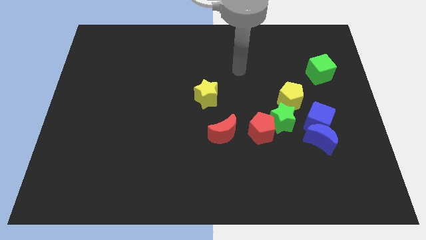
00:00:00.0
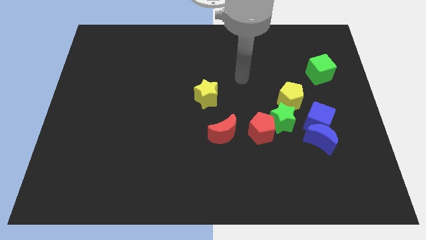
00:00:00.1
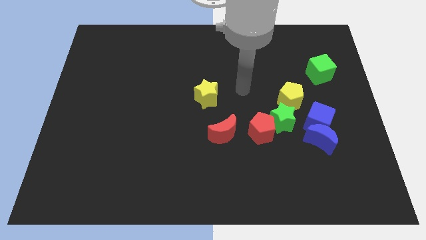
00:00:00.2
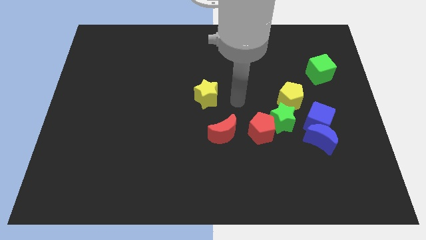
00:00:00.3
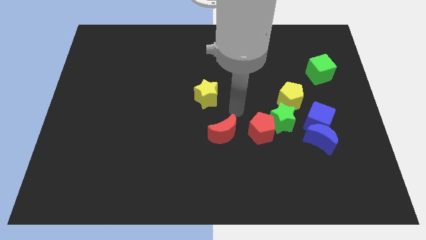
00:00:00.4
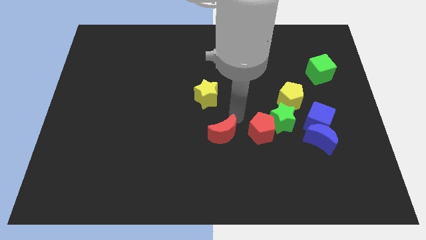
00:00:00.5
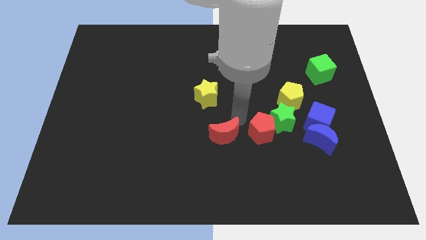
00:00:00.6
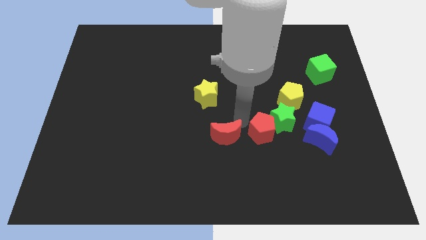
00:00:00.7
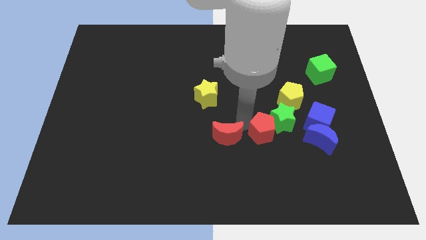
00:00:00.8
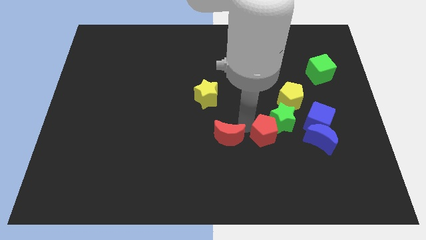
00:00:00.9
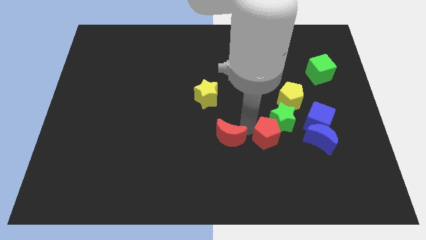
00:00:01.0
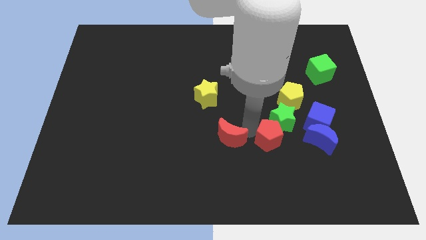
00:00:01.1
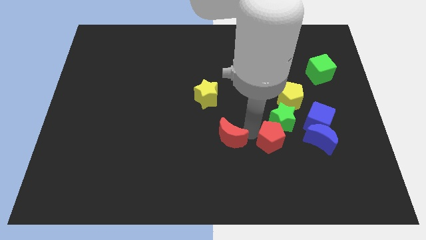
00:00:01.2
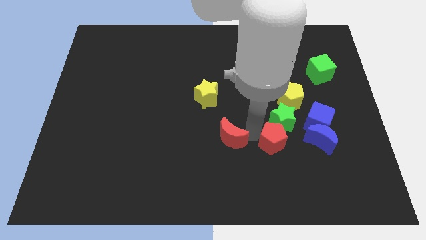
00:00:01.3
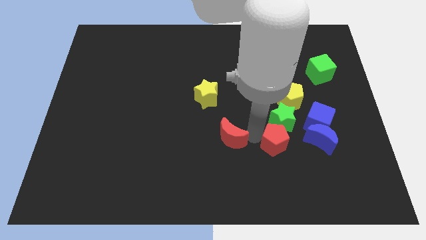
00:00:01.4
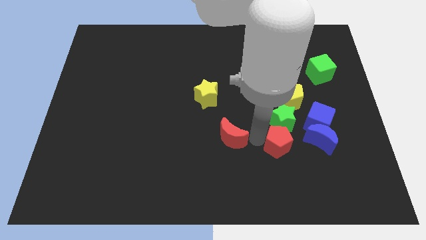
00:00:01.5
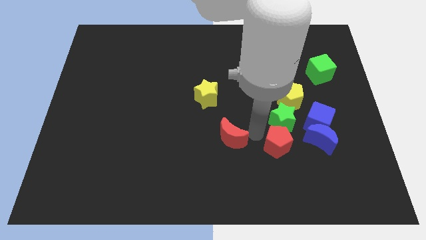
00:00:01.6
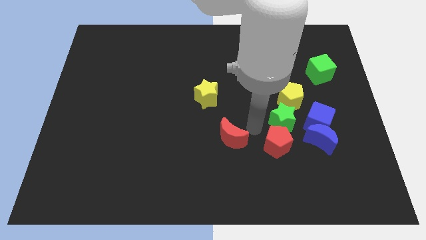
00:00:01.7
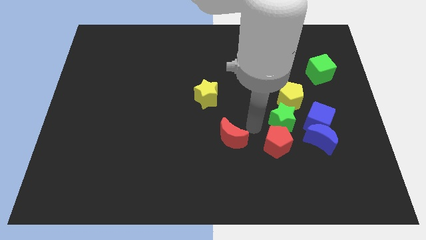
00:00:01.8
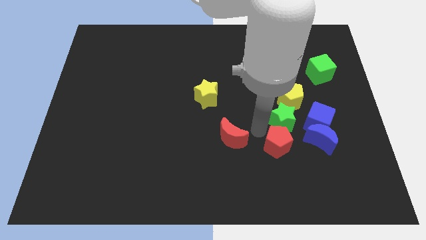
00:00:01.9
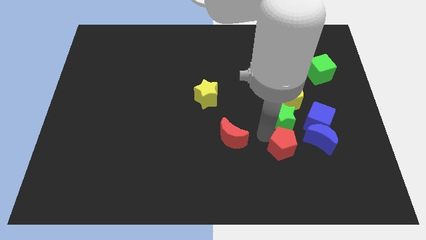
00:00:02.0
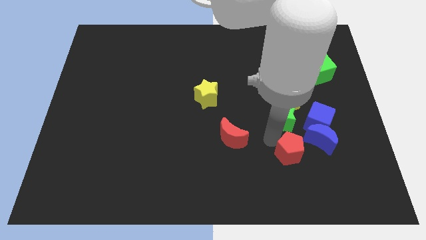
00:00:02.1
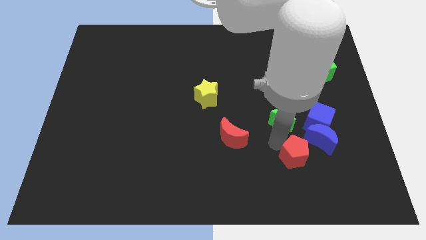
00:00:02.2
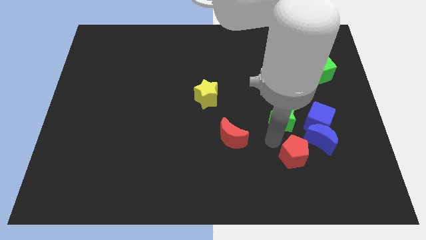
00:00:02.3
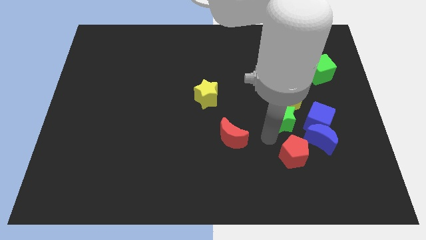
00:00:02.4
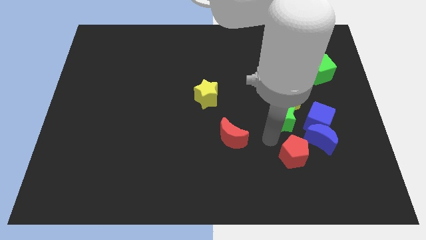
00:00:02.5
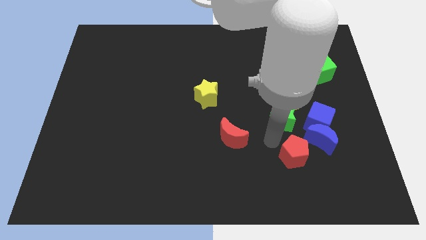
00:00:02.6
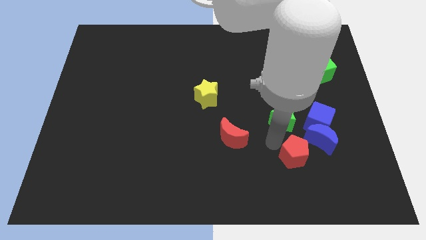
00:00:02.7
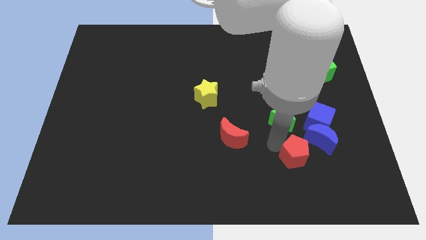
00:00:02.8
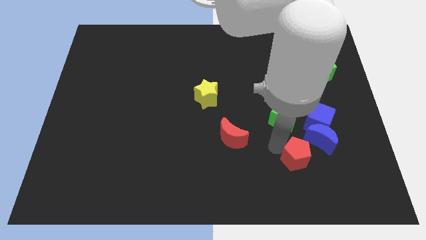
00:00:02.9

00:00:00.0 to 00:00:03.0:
move the red pentagon away from the green star and red moon

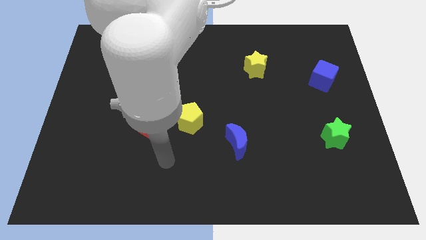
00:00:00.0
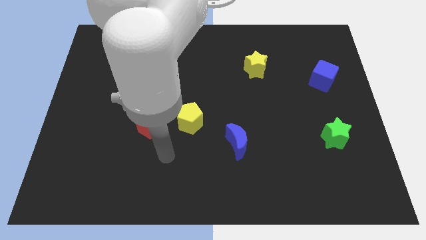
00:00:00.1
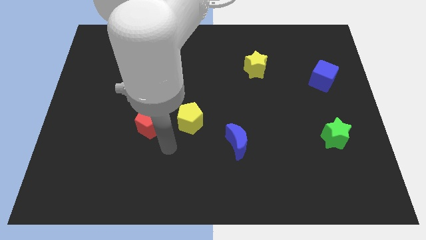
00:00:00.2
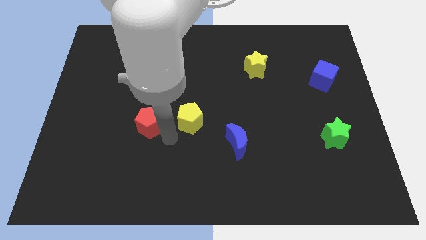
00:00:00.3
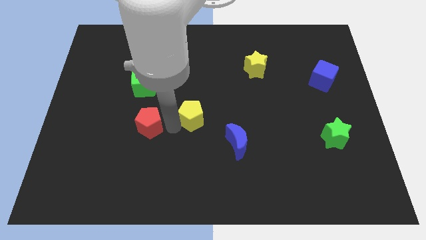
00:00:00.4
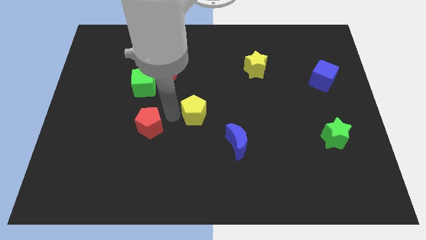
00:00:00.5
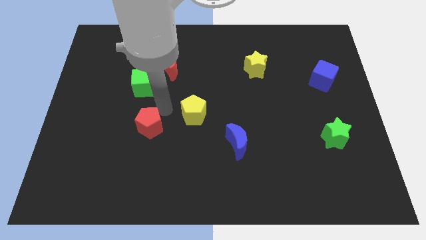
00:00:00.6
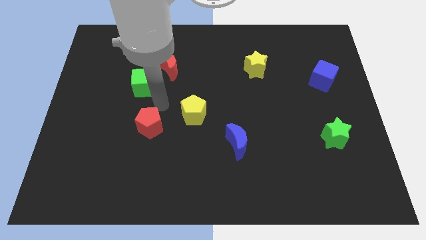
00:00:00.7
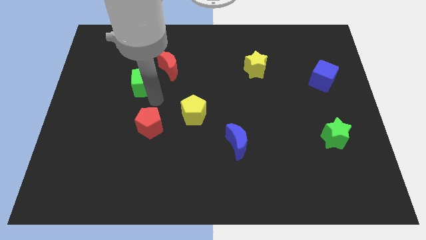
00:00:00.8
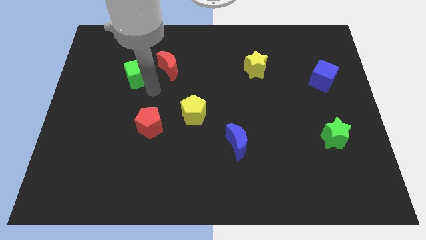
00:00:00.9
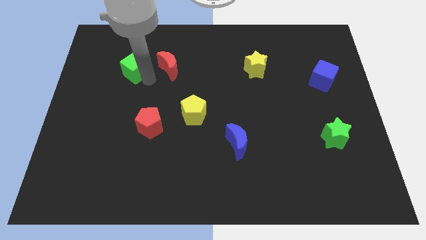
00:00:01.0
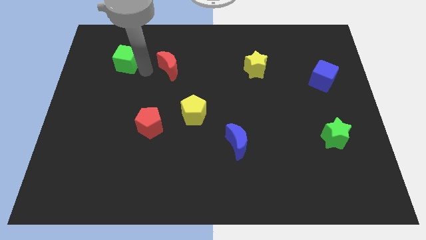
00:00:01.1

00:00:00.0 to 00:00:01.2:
separate the red moon from the green cube

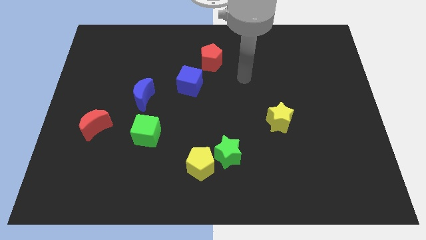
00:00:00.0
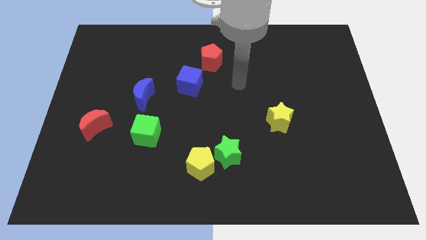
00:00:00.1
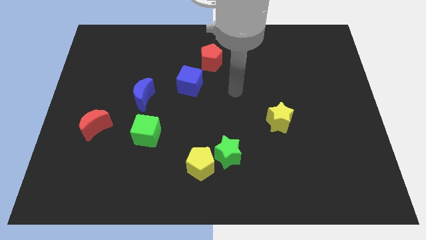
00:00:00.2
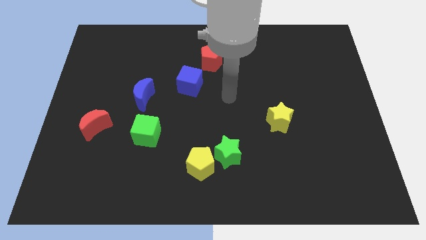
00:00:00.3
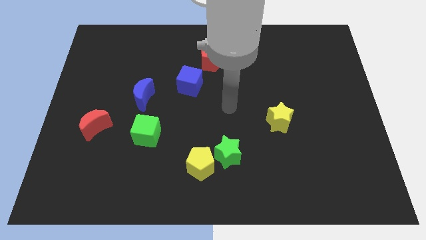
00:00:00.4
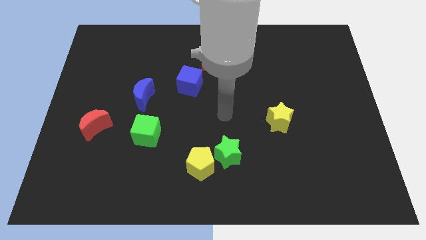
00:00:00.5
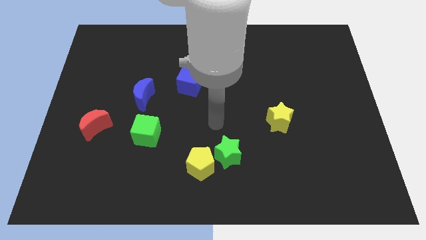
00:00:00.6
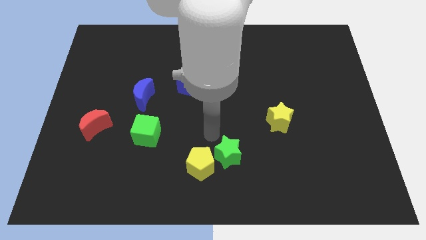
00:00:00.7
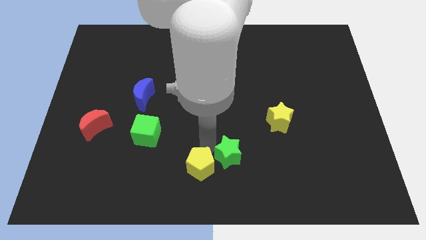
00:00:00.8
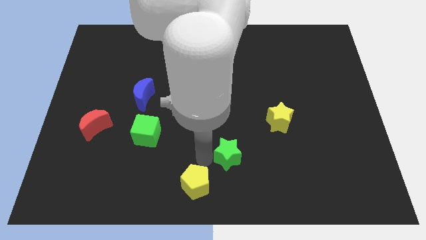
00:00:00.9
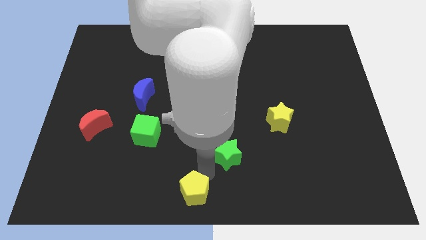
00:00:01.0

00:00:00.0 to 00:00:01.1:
pull the green star apart from the yellow pentagon

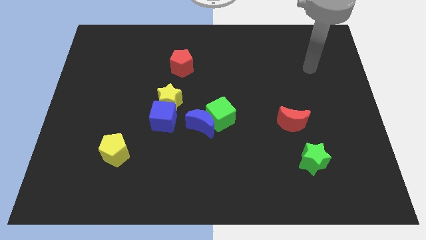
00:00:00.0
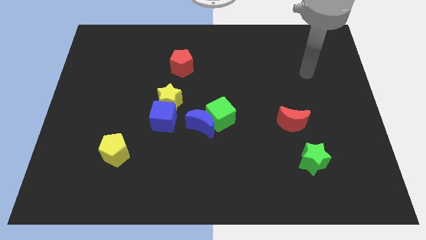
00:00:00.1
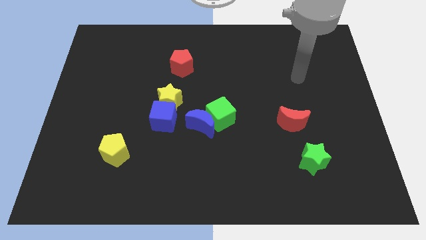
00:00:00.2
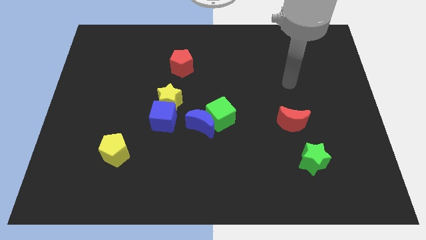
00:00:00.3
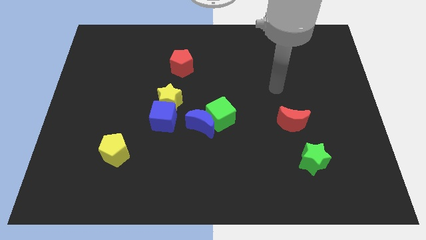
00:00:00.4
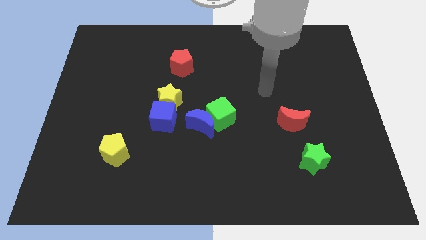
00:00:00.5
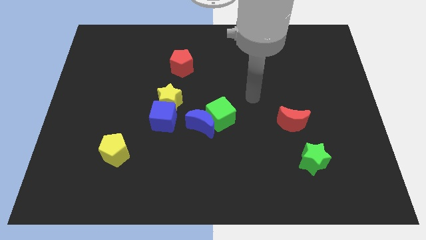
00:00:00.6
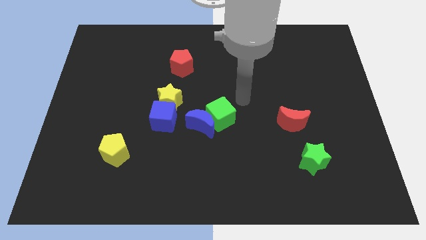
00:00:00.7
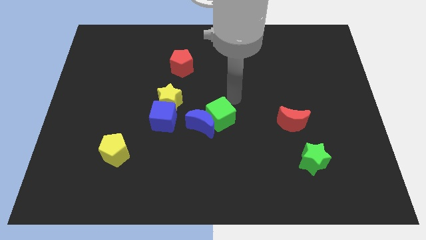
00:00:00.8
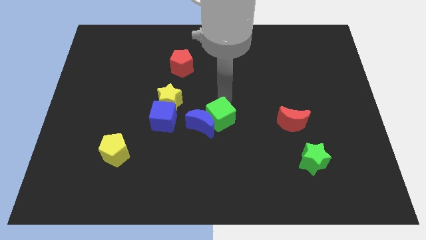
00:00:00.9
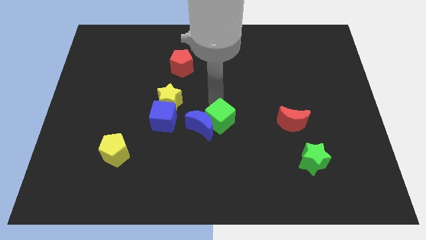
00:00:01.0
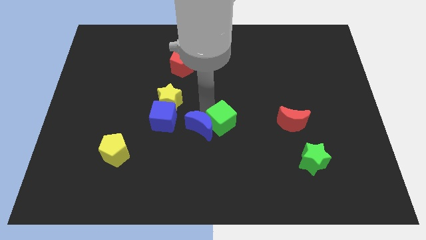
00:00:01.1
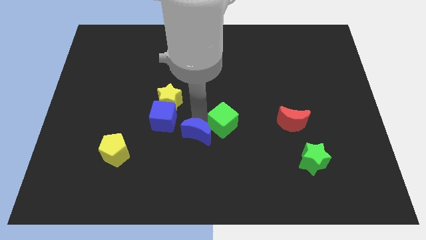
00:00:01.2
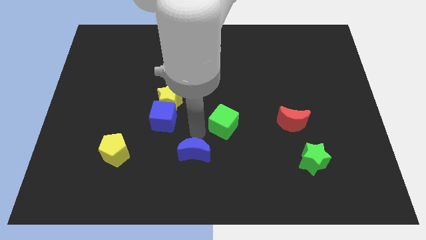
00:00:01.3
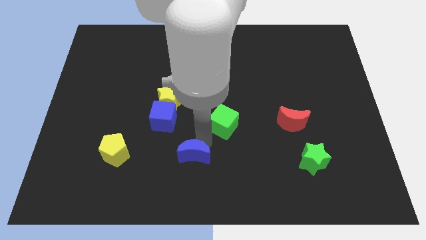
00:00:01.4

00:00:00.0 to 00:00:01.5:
pull the green cube apart from the blue moon

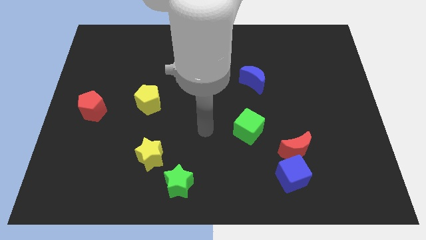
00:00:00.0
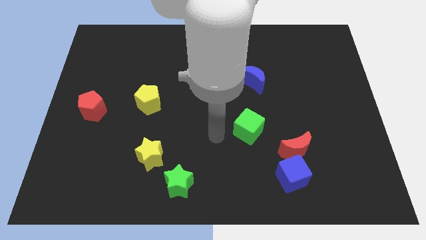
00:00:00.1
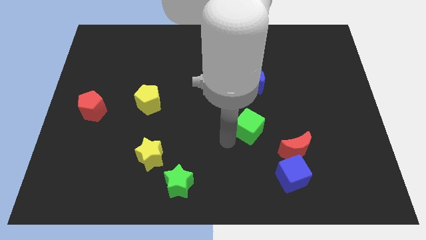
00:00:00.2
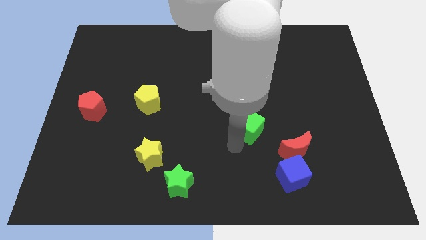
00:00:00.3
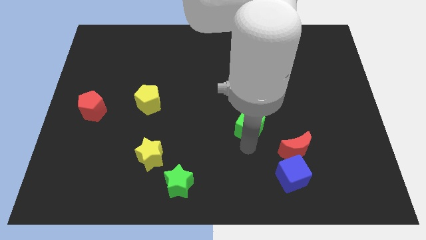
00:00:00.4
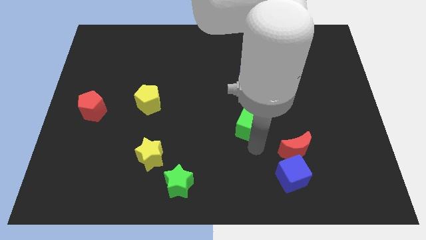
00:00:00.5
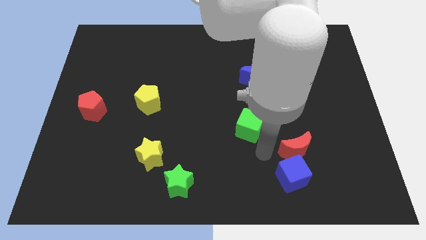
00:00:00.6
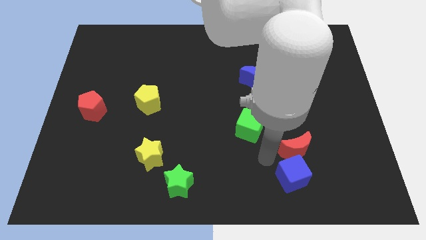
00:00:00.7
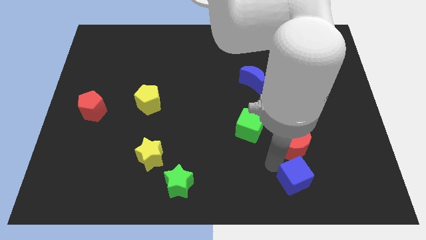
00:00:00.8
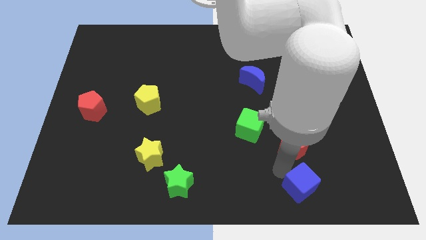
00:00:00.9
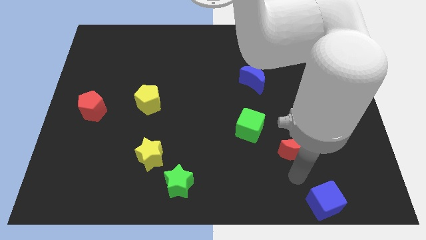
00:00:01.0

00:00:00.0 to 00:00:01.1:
separate the red moon from the blue cube

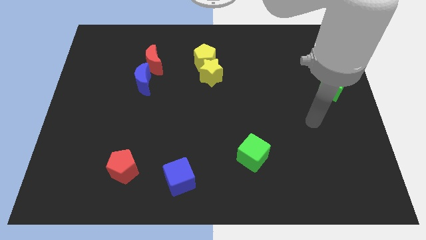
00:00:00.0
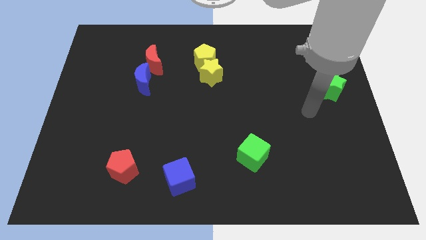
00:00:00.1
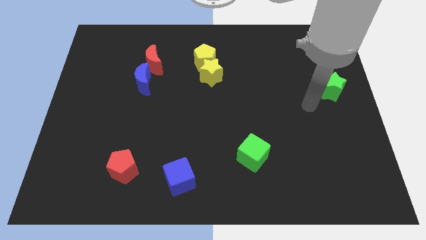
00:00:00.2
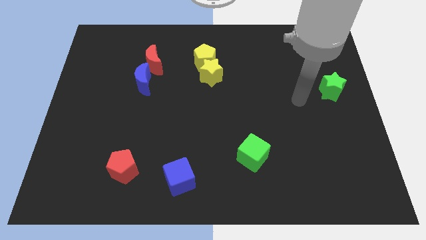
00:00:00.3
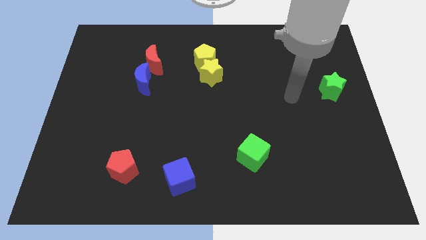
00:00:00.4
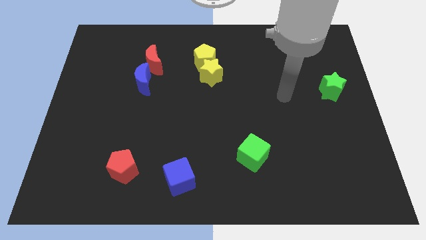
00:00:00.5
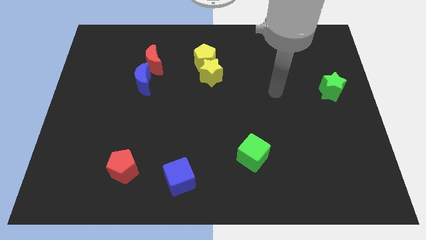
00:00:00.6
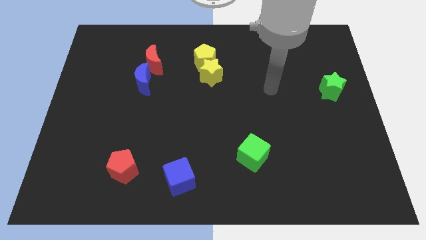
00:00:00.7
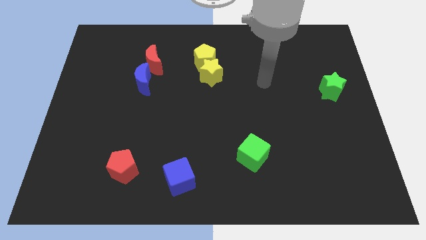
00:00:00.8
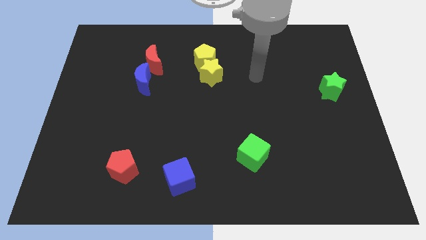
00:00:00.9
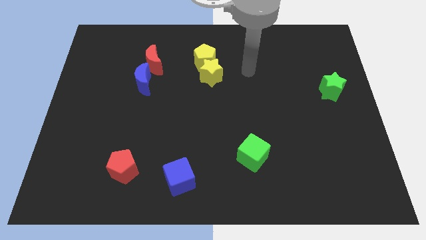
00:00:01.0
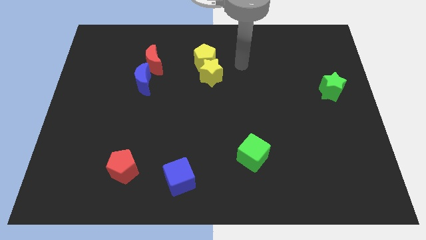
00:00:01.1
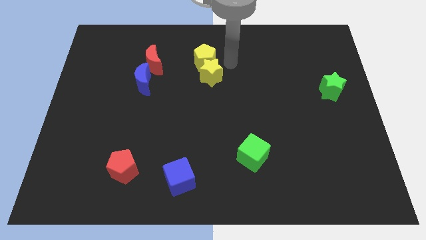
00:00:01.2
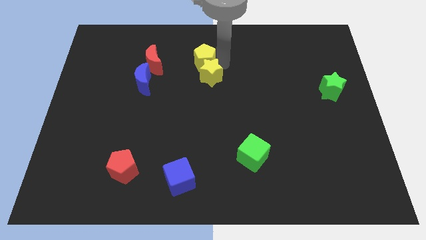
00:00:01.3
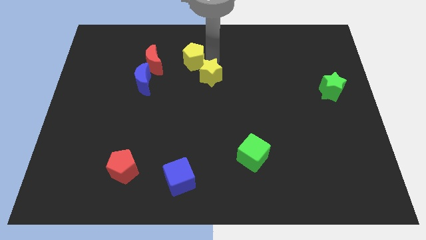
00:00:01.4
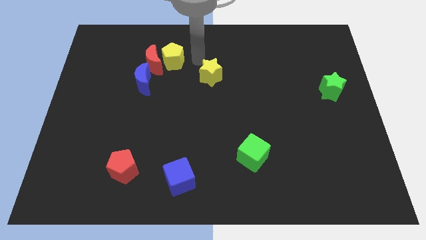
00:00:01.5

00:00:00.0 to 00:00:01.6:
move the yellow star away from the yellow pentagon
